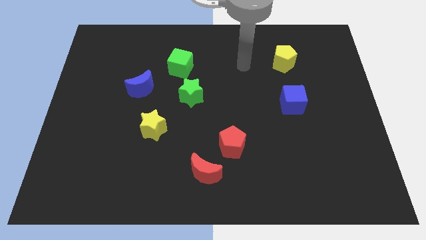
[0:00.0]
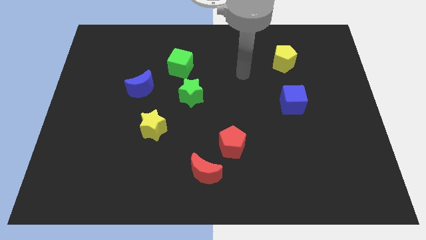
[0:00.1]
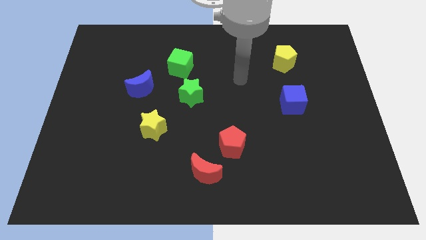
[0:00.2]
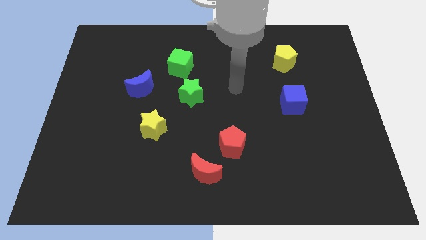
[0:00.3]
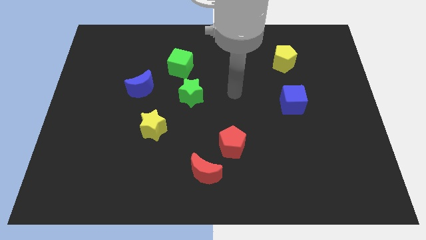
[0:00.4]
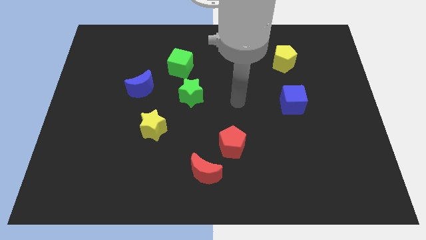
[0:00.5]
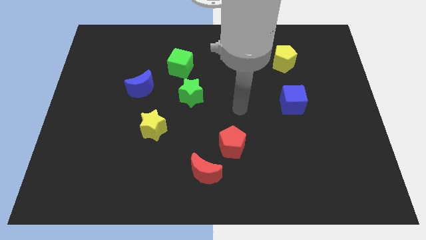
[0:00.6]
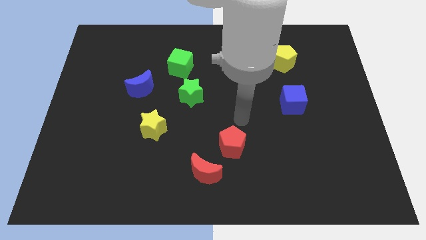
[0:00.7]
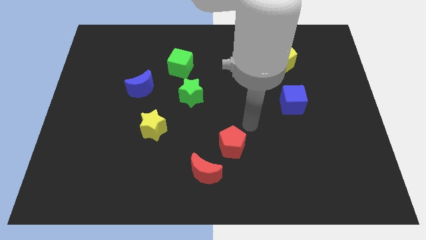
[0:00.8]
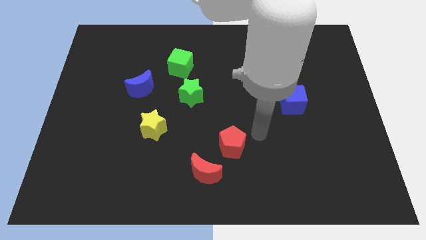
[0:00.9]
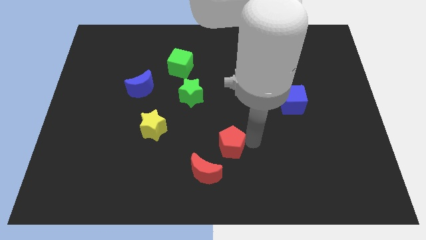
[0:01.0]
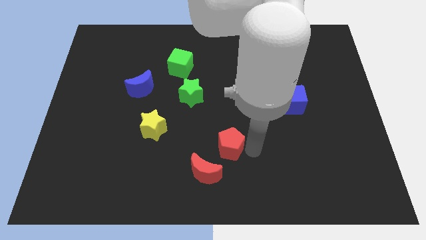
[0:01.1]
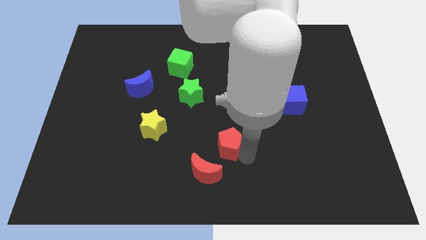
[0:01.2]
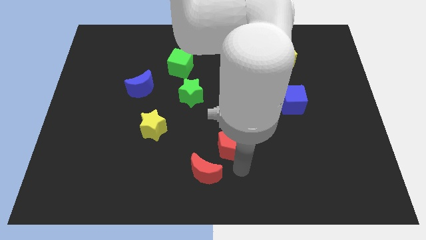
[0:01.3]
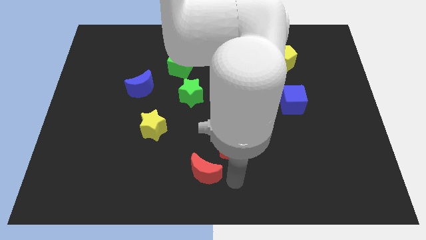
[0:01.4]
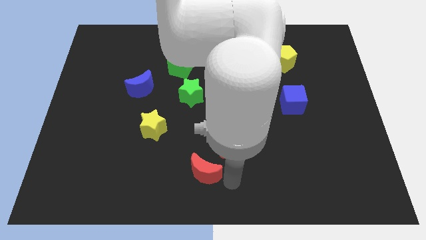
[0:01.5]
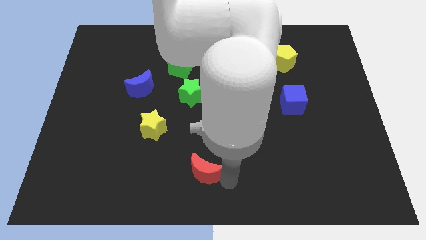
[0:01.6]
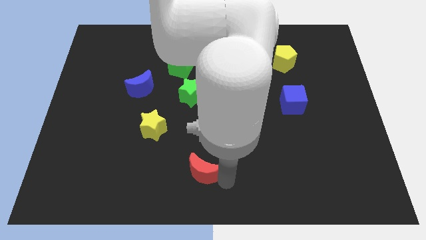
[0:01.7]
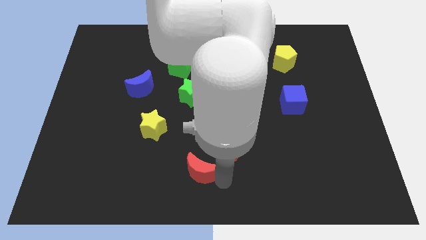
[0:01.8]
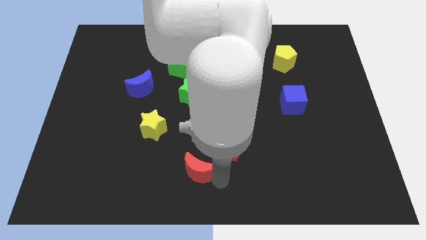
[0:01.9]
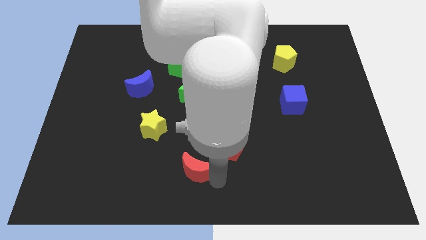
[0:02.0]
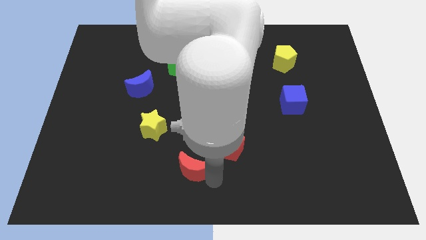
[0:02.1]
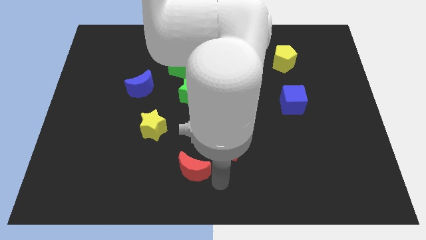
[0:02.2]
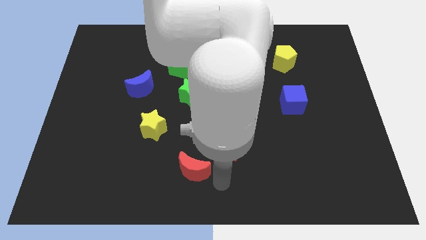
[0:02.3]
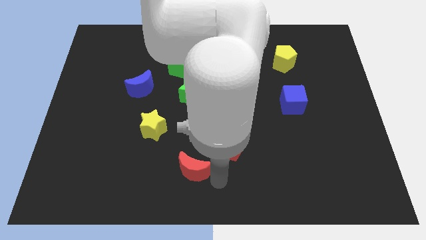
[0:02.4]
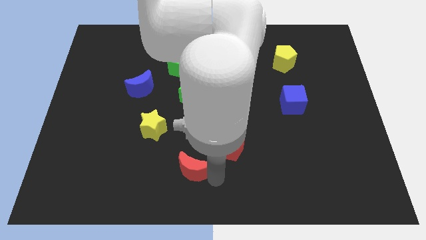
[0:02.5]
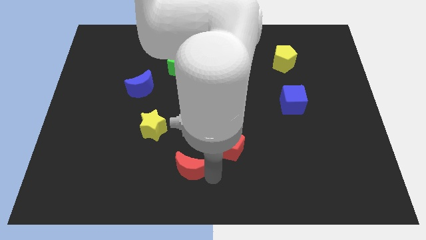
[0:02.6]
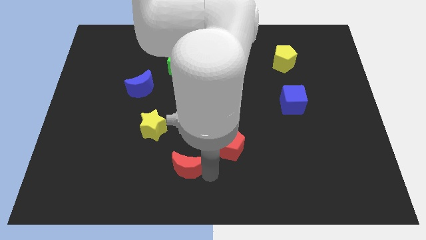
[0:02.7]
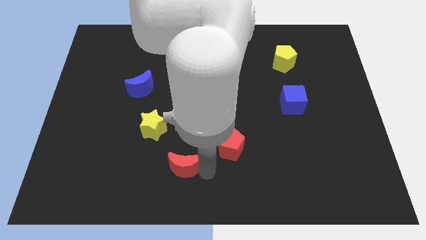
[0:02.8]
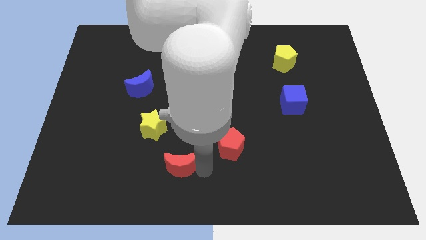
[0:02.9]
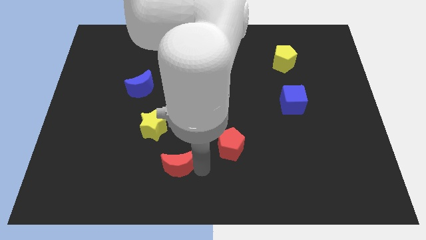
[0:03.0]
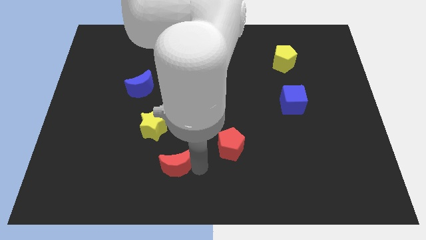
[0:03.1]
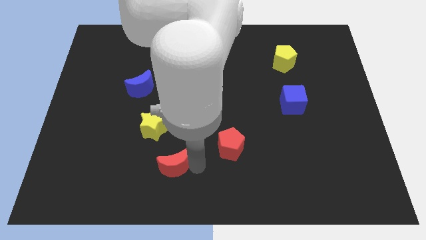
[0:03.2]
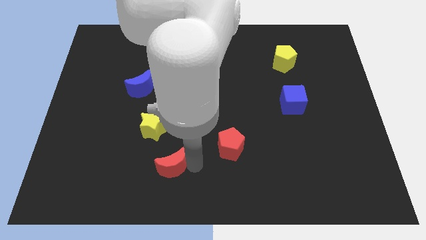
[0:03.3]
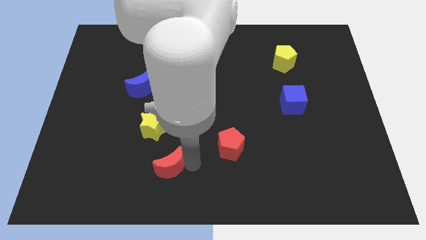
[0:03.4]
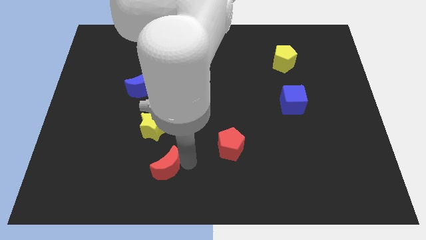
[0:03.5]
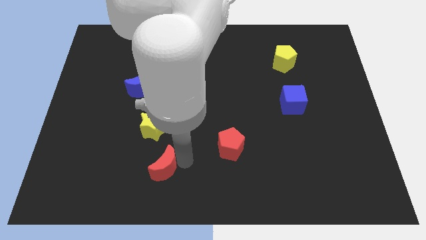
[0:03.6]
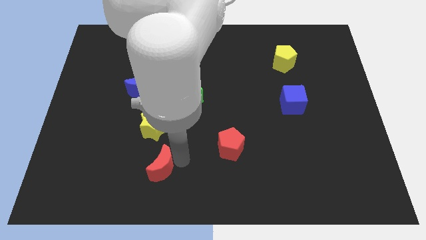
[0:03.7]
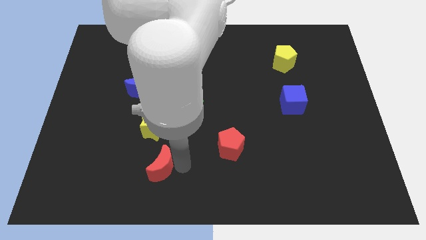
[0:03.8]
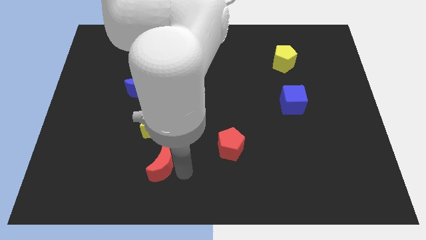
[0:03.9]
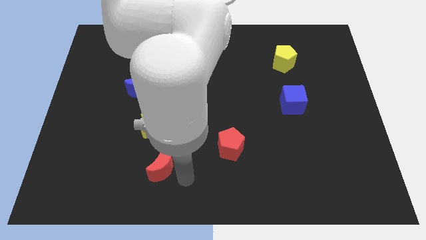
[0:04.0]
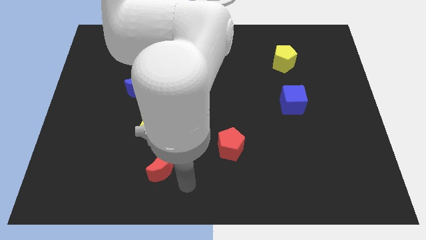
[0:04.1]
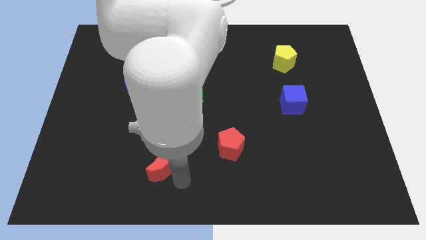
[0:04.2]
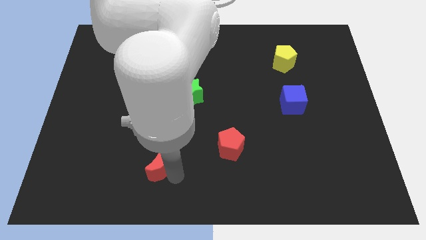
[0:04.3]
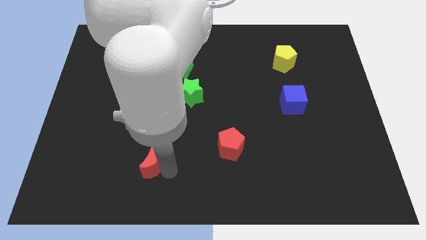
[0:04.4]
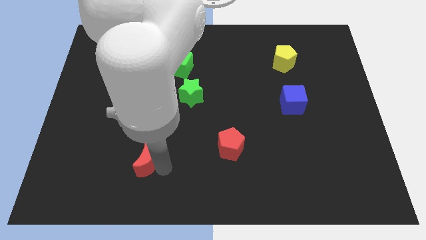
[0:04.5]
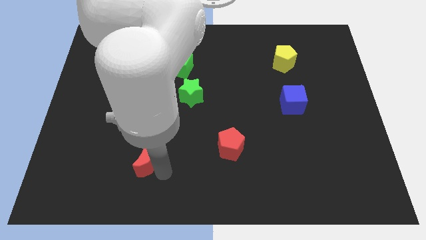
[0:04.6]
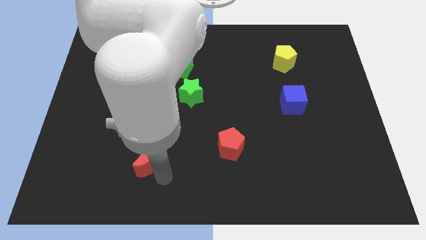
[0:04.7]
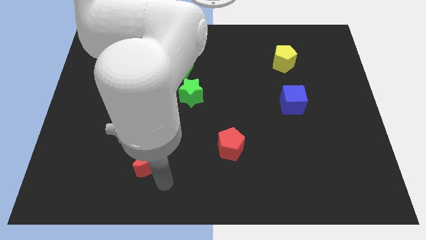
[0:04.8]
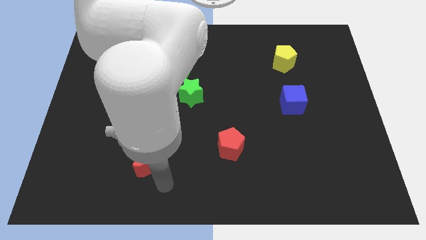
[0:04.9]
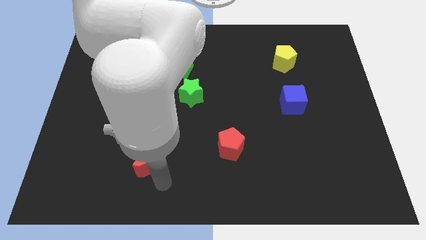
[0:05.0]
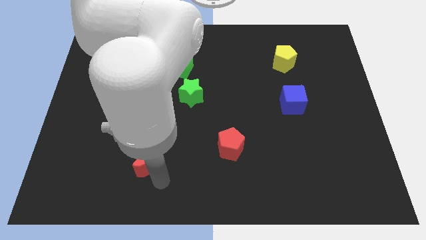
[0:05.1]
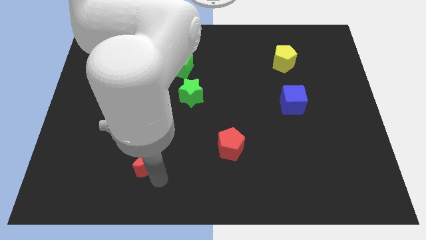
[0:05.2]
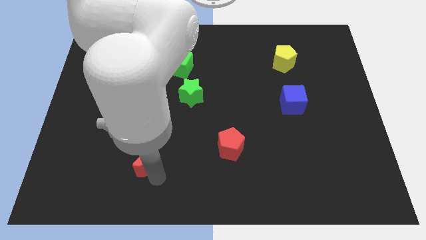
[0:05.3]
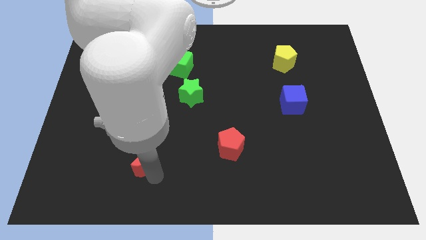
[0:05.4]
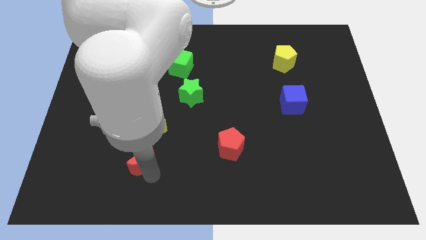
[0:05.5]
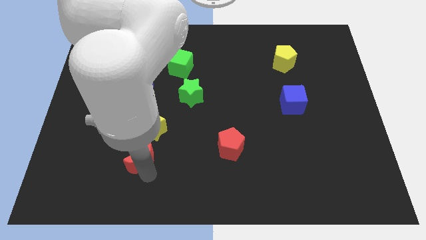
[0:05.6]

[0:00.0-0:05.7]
slide the red moon diagonally down and to the left of the yellow star

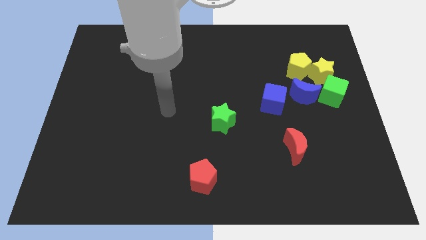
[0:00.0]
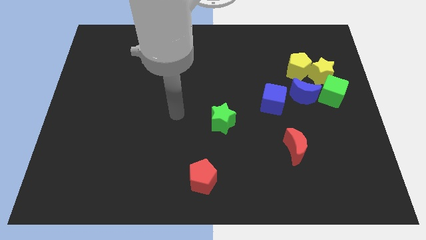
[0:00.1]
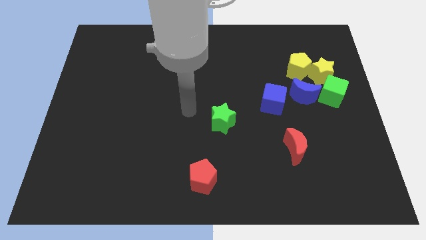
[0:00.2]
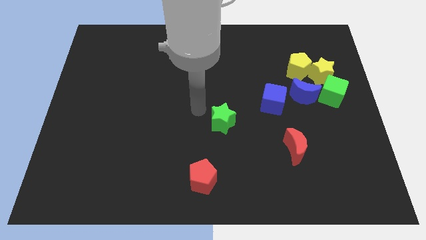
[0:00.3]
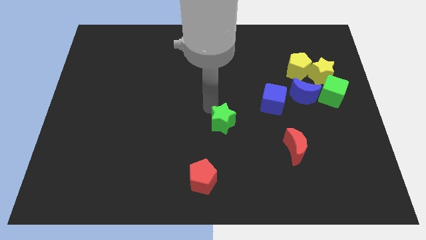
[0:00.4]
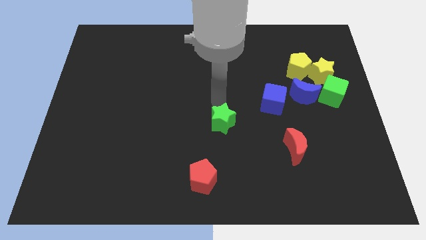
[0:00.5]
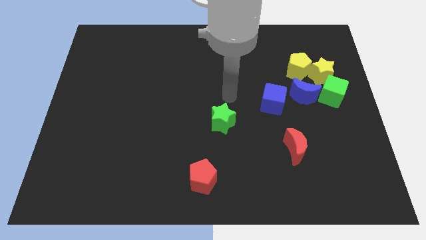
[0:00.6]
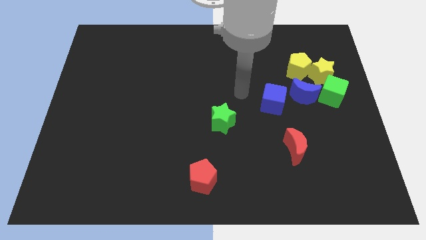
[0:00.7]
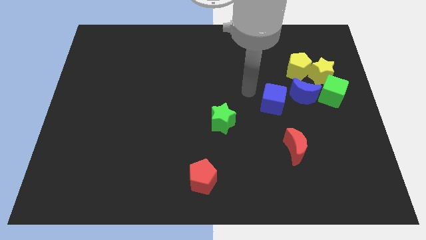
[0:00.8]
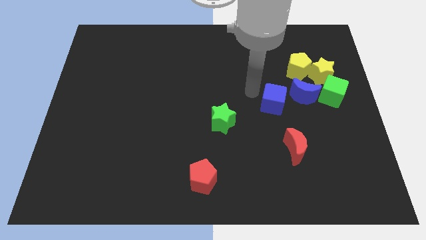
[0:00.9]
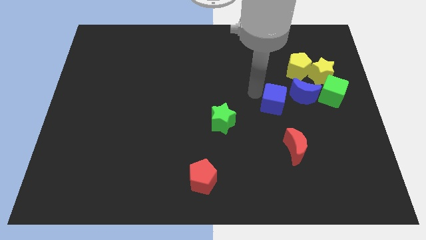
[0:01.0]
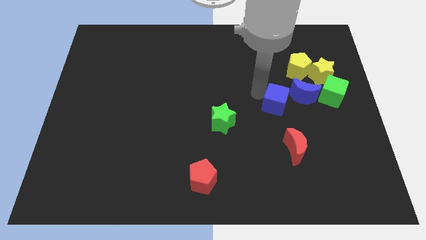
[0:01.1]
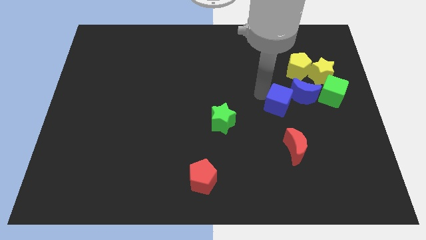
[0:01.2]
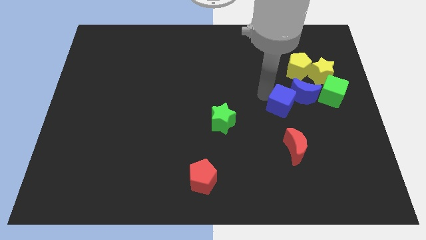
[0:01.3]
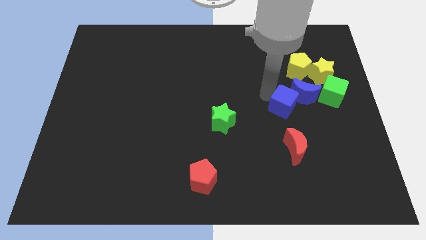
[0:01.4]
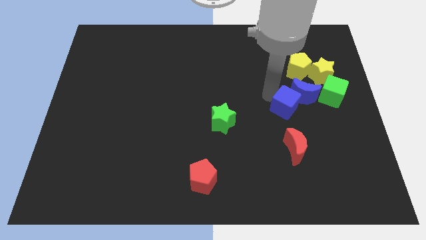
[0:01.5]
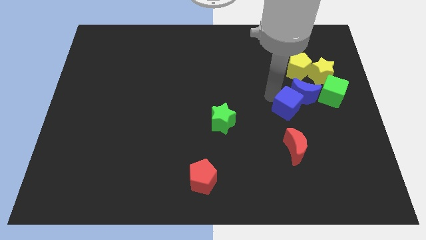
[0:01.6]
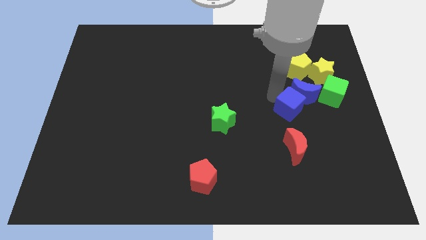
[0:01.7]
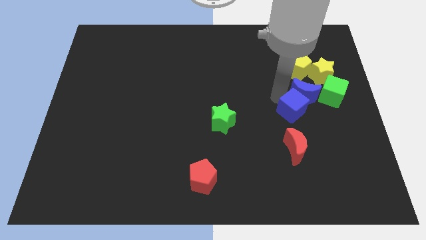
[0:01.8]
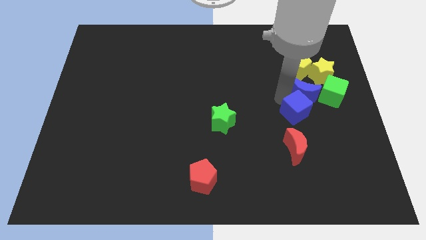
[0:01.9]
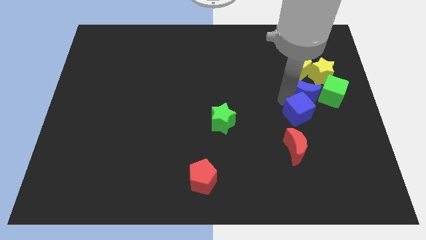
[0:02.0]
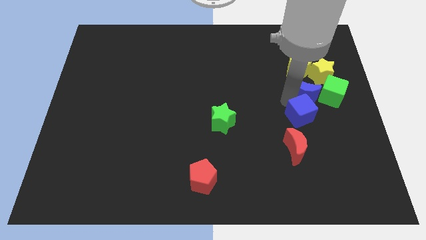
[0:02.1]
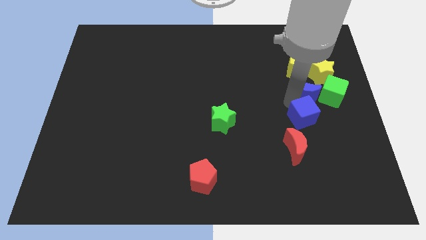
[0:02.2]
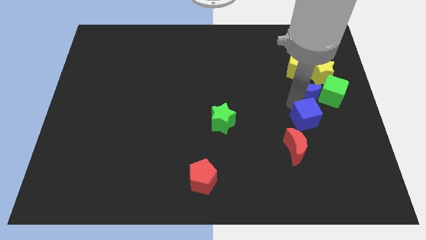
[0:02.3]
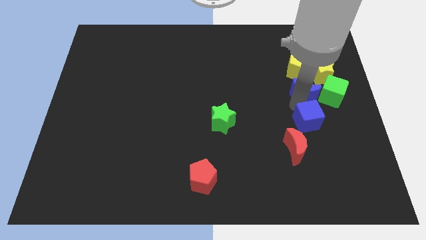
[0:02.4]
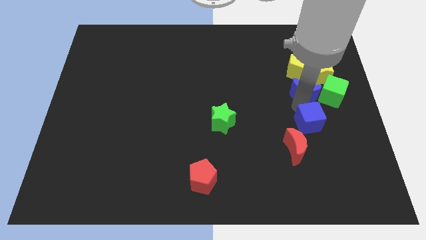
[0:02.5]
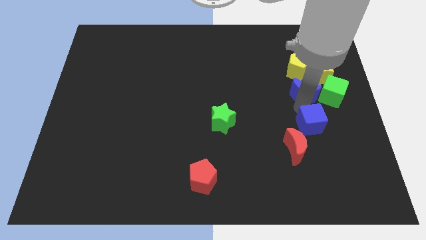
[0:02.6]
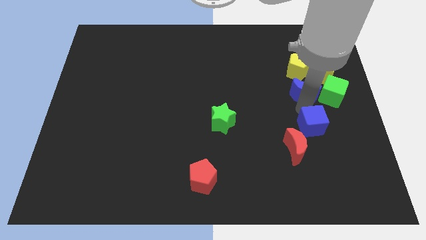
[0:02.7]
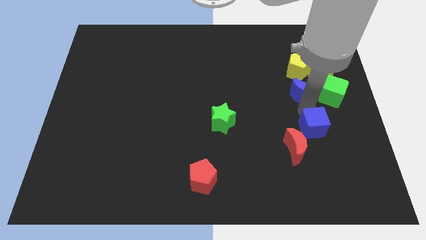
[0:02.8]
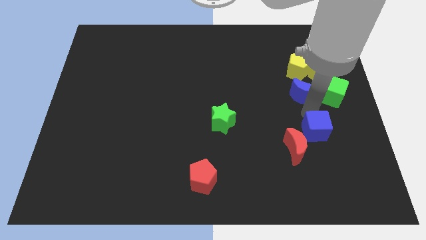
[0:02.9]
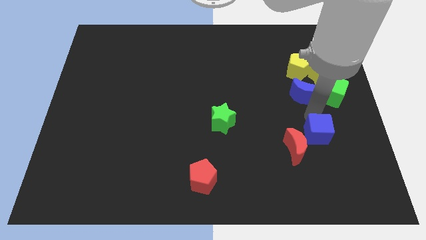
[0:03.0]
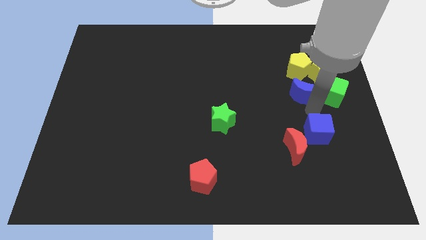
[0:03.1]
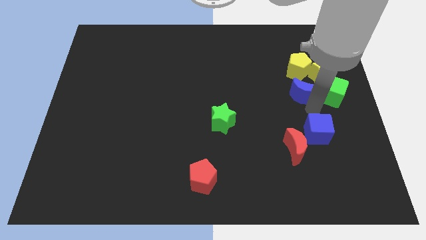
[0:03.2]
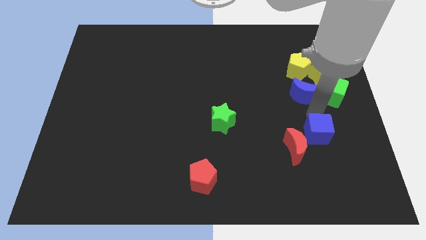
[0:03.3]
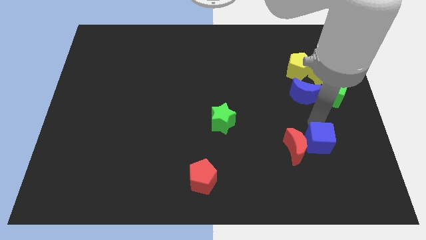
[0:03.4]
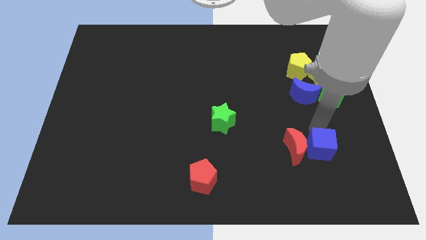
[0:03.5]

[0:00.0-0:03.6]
slide the blue cube diagonally down and to the right of the red moon
